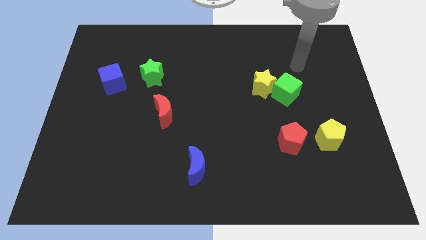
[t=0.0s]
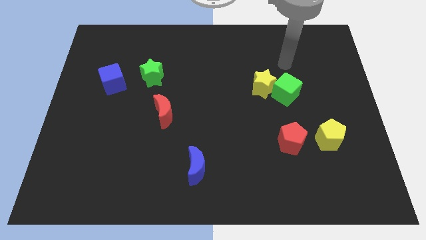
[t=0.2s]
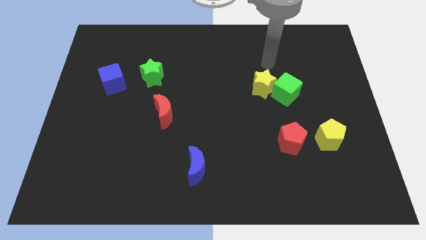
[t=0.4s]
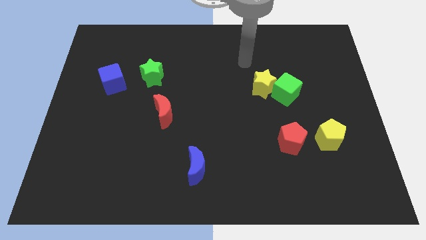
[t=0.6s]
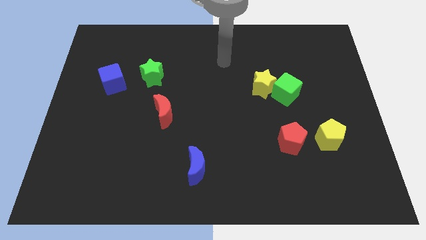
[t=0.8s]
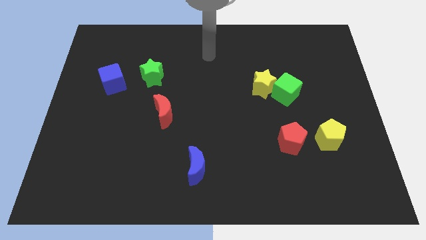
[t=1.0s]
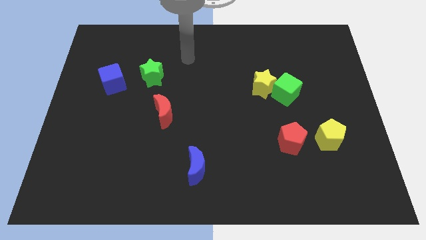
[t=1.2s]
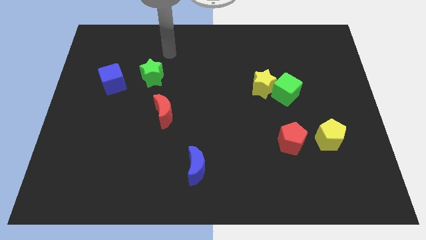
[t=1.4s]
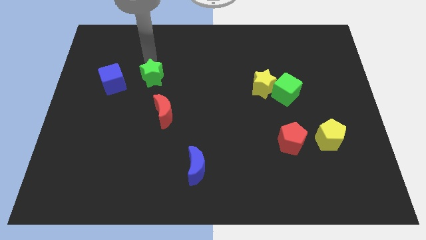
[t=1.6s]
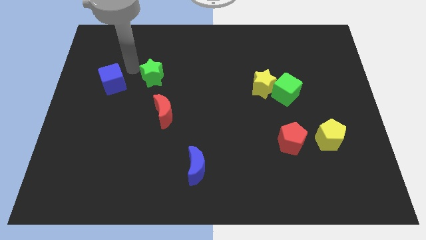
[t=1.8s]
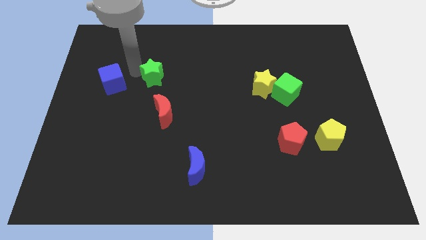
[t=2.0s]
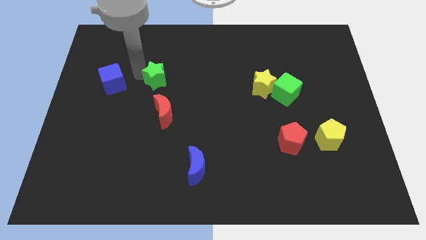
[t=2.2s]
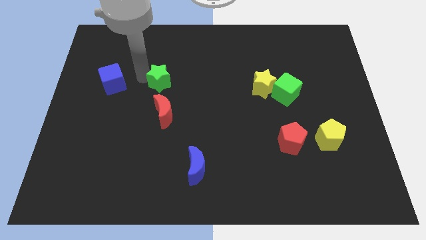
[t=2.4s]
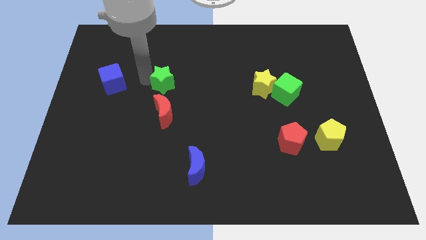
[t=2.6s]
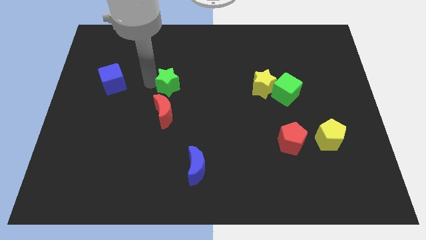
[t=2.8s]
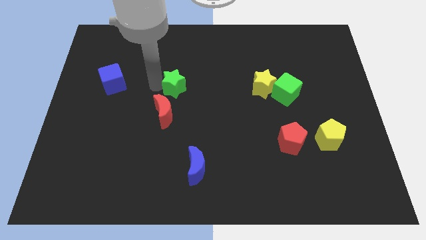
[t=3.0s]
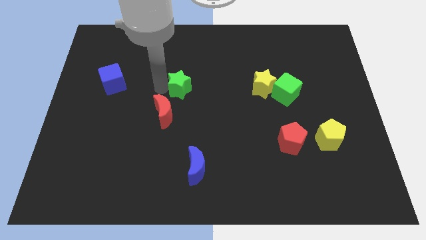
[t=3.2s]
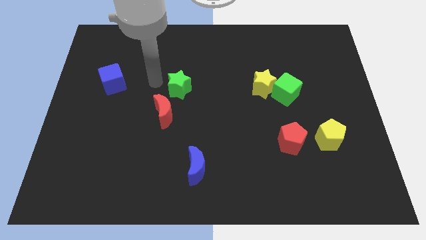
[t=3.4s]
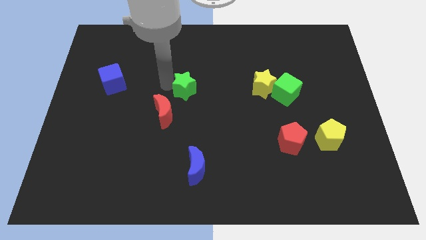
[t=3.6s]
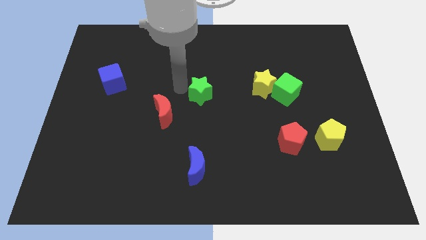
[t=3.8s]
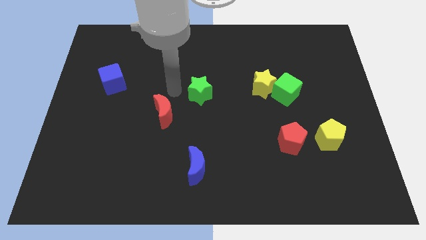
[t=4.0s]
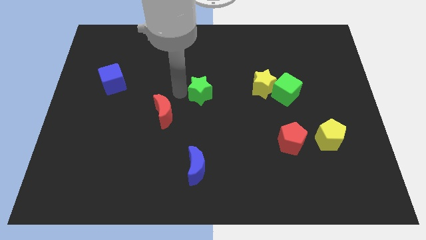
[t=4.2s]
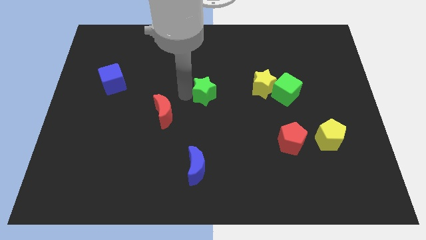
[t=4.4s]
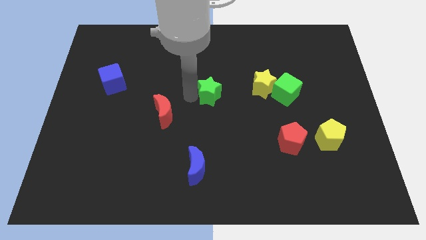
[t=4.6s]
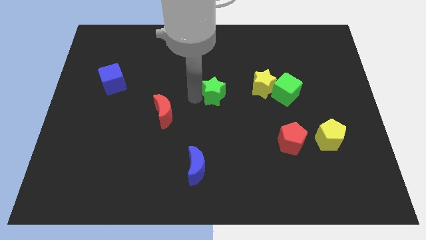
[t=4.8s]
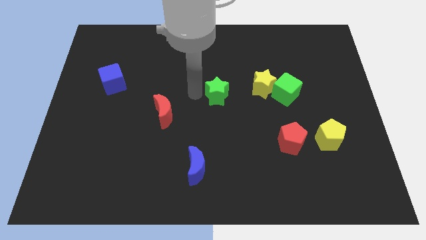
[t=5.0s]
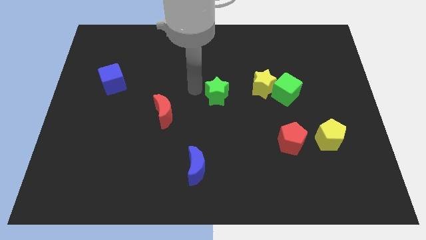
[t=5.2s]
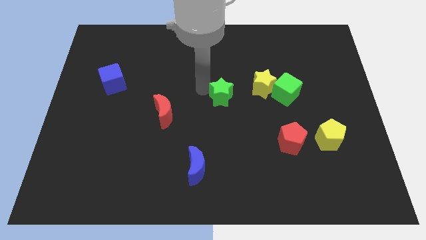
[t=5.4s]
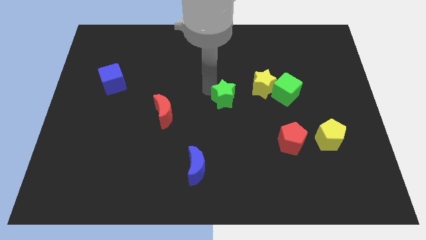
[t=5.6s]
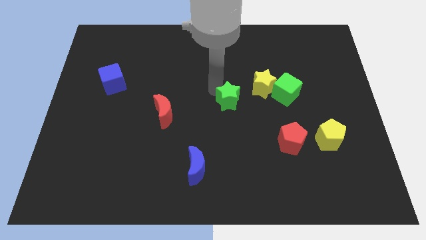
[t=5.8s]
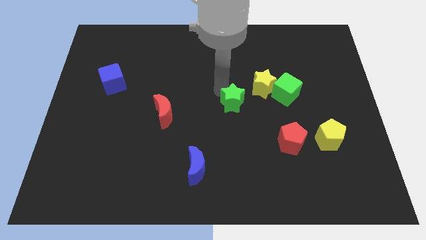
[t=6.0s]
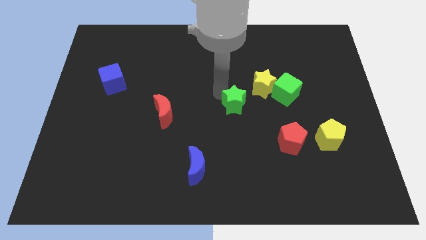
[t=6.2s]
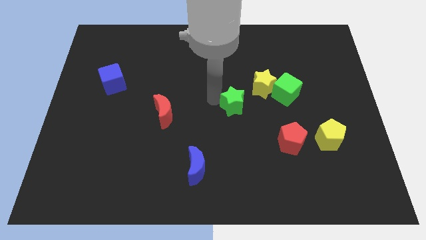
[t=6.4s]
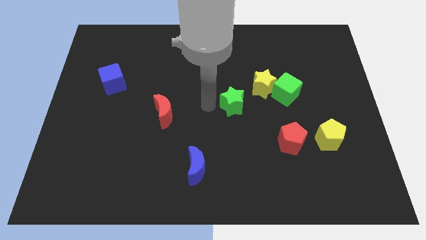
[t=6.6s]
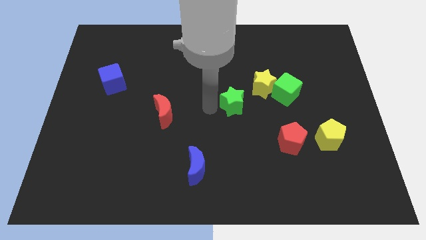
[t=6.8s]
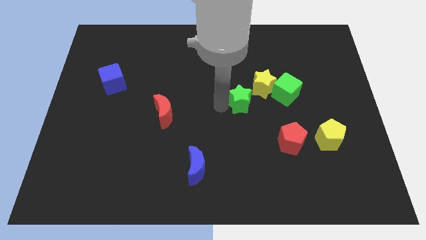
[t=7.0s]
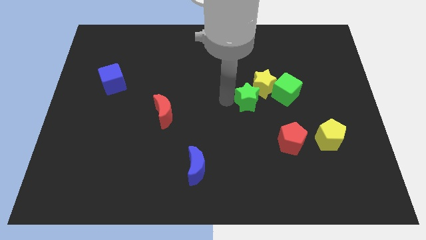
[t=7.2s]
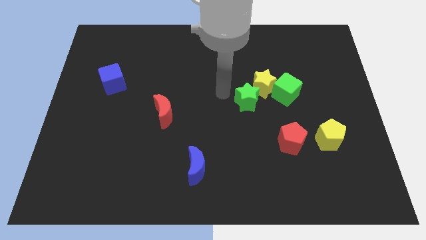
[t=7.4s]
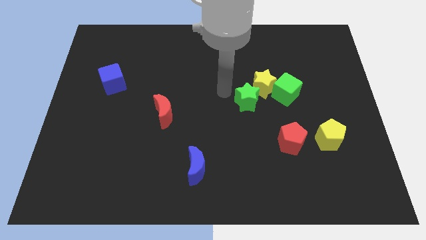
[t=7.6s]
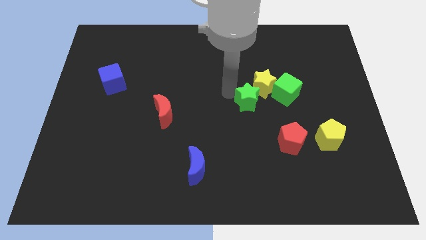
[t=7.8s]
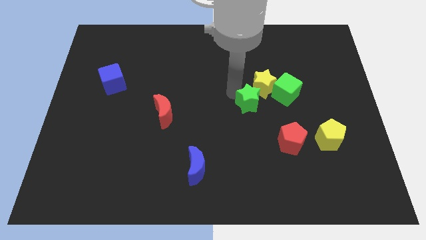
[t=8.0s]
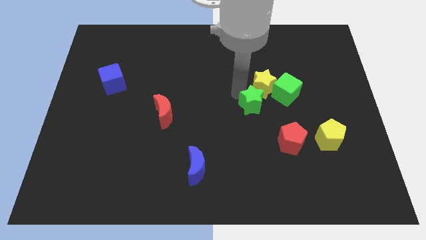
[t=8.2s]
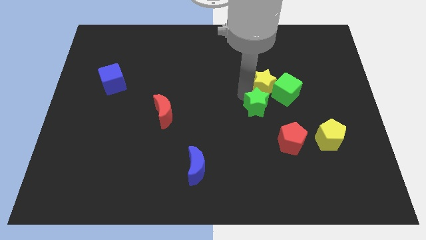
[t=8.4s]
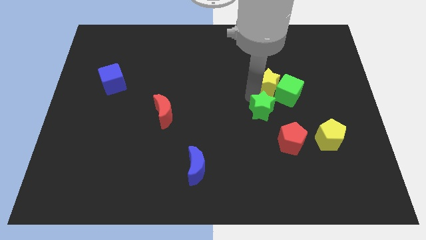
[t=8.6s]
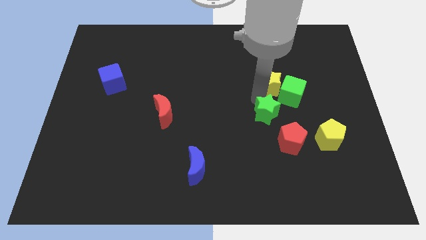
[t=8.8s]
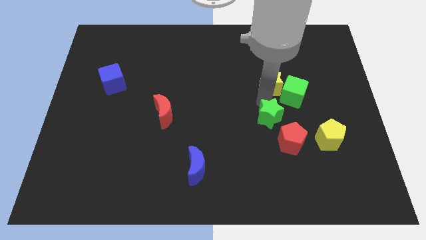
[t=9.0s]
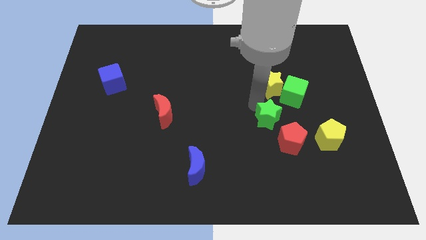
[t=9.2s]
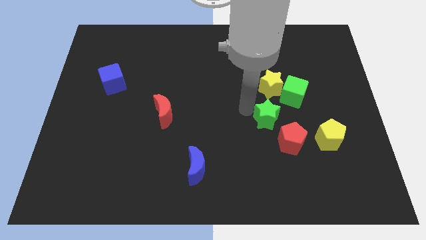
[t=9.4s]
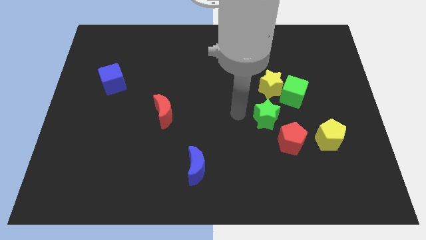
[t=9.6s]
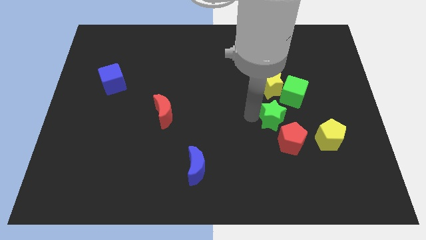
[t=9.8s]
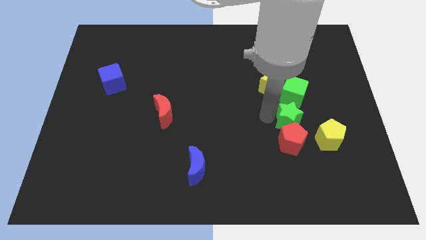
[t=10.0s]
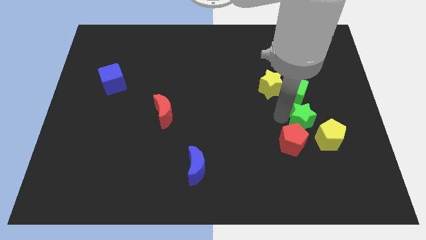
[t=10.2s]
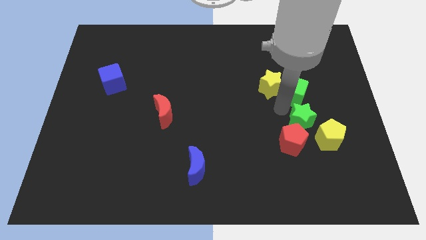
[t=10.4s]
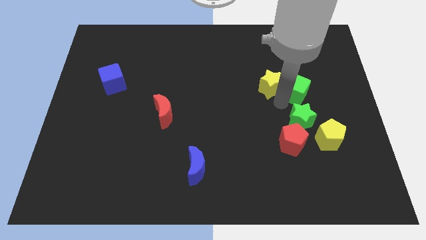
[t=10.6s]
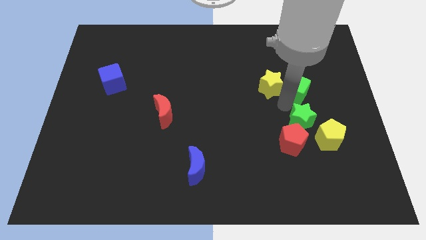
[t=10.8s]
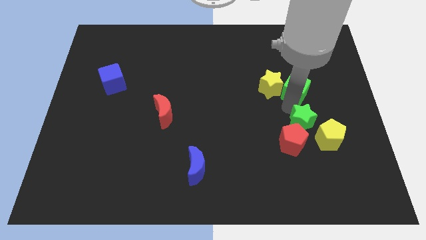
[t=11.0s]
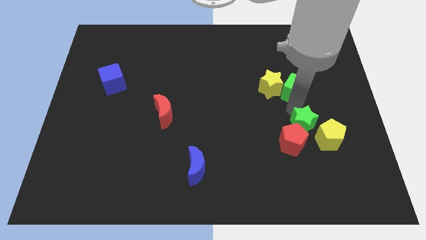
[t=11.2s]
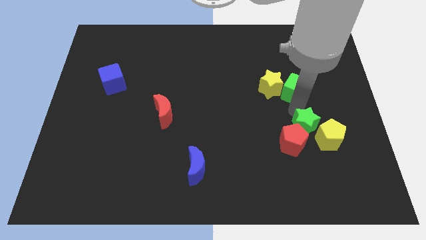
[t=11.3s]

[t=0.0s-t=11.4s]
move the green star next to the yellow pentagon

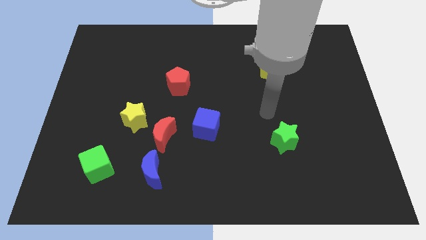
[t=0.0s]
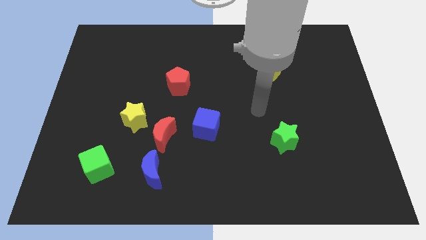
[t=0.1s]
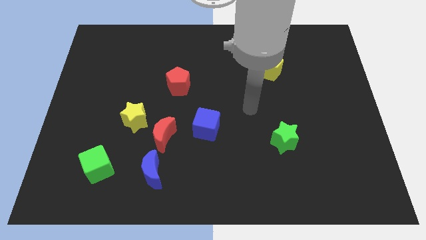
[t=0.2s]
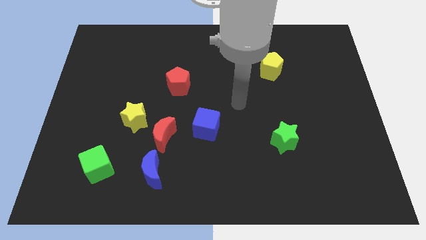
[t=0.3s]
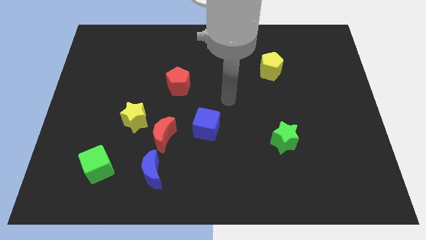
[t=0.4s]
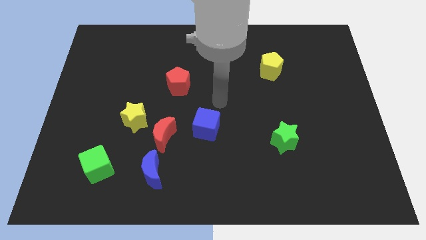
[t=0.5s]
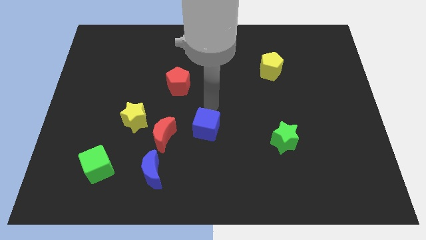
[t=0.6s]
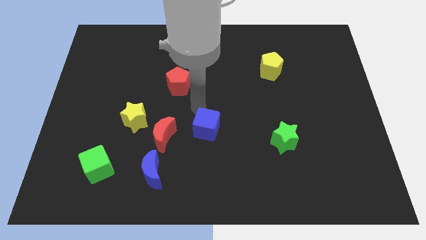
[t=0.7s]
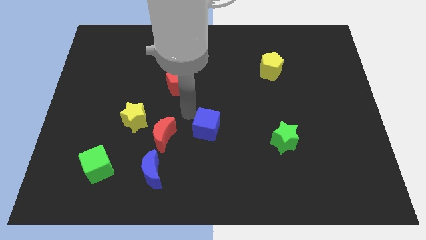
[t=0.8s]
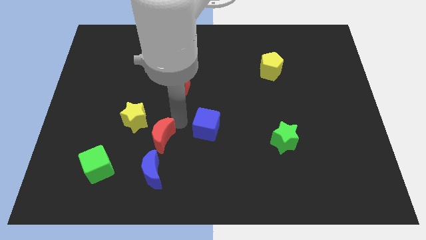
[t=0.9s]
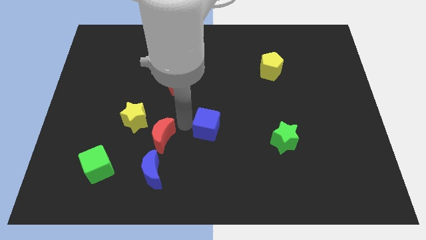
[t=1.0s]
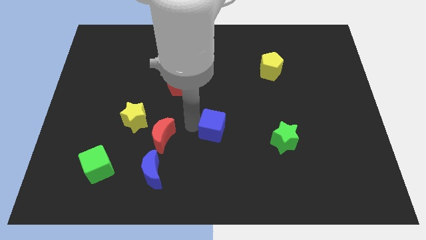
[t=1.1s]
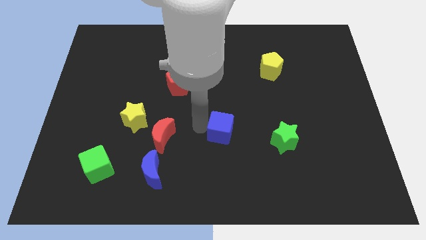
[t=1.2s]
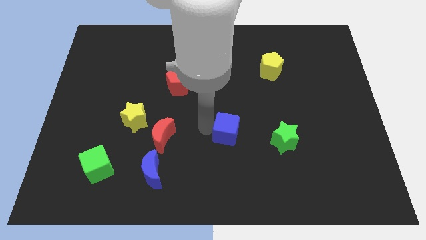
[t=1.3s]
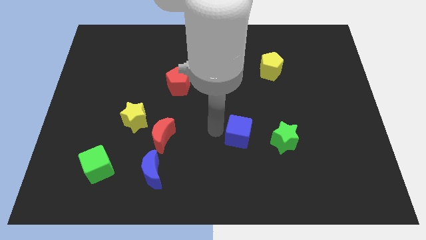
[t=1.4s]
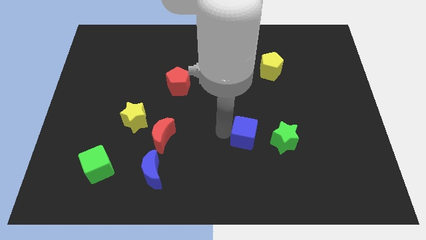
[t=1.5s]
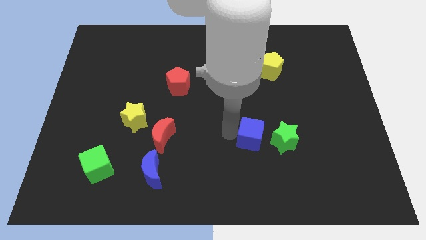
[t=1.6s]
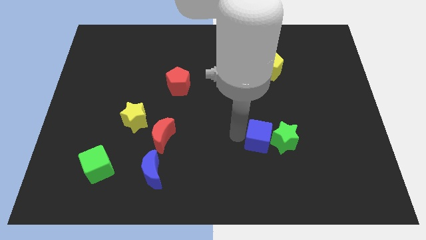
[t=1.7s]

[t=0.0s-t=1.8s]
push the blue cube next to the green star
